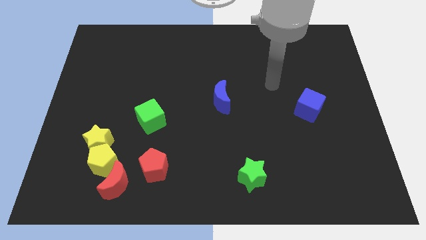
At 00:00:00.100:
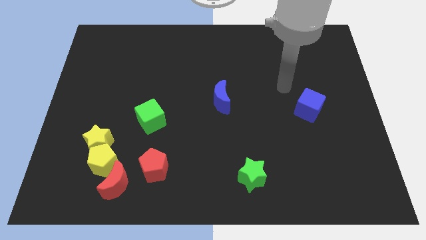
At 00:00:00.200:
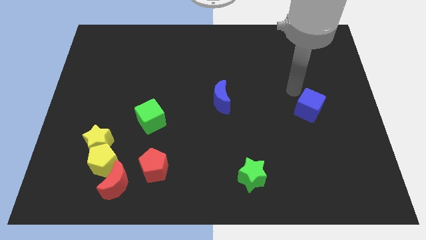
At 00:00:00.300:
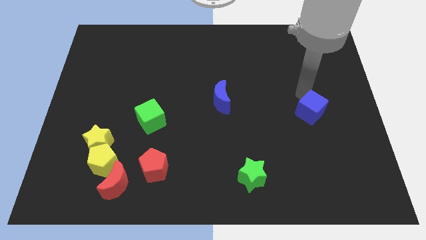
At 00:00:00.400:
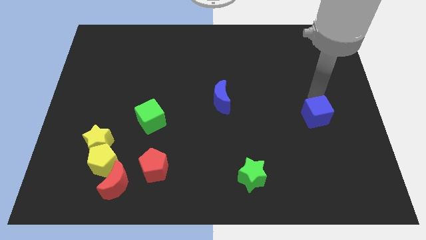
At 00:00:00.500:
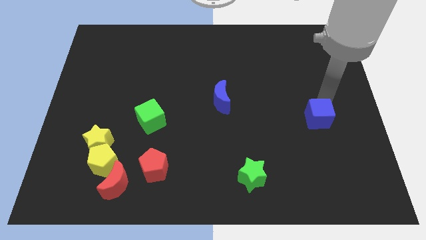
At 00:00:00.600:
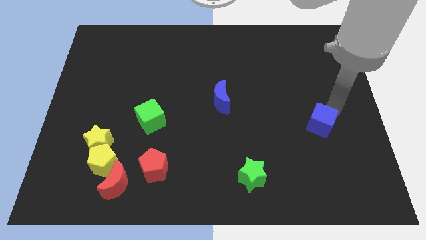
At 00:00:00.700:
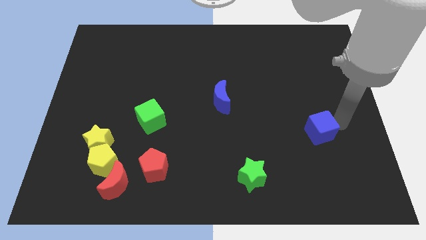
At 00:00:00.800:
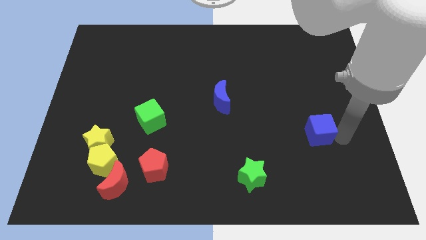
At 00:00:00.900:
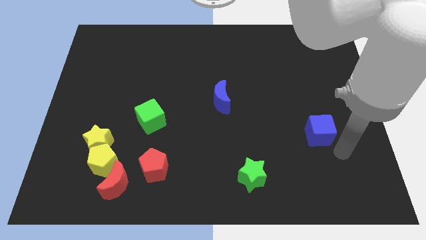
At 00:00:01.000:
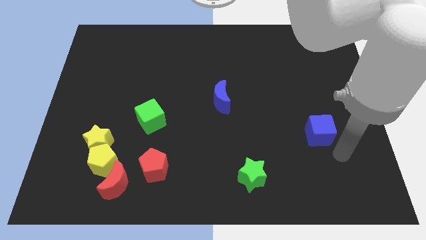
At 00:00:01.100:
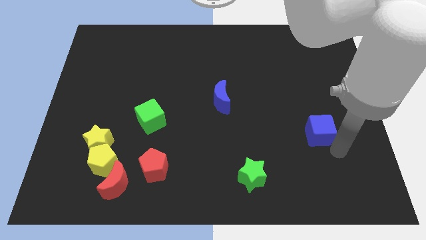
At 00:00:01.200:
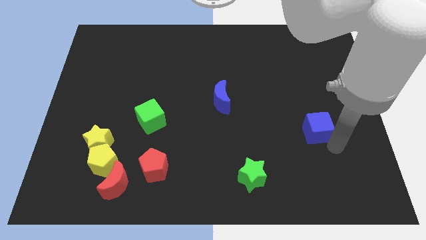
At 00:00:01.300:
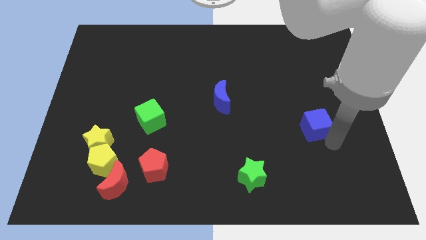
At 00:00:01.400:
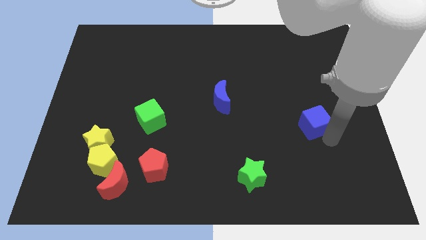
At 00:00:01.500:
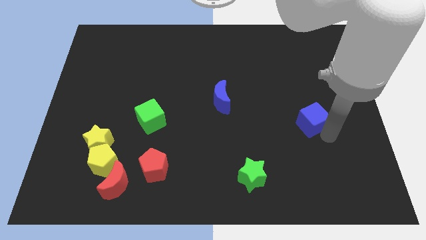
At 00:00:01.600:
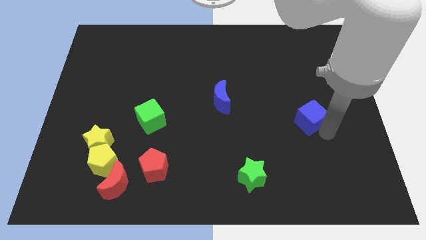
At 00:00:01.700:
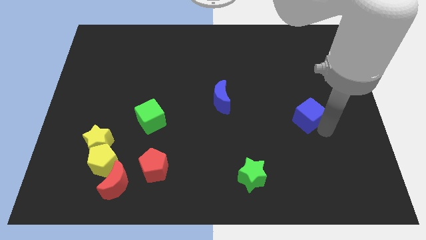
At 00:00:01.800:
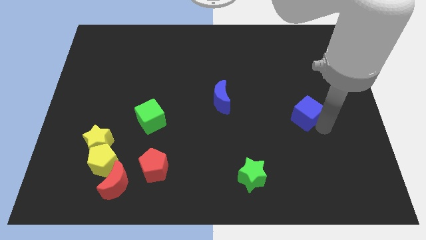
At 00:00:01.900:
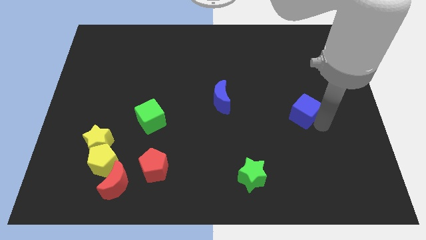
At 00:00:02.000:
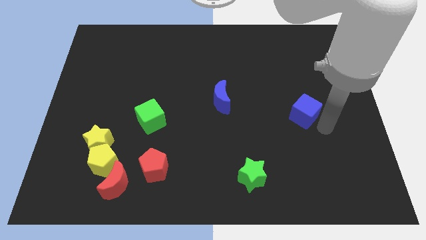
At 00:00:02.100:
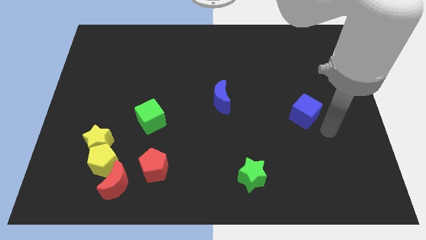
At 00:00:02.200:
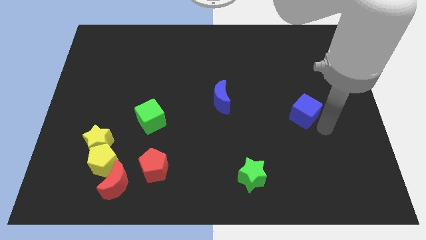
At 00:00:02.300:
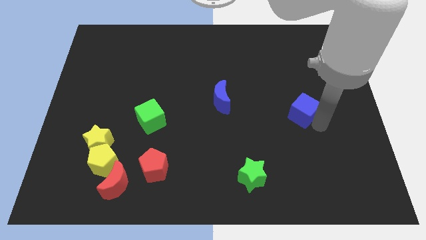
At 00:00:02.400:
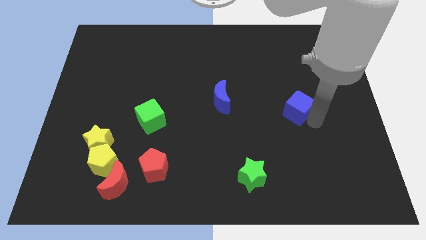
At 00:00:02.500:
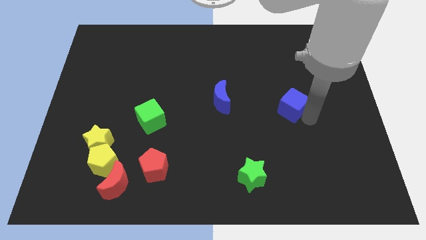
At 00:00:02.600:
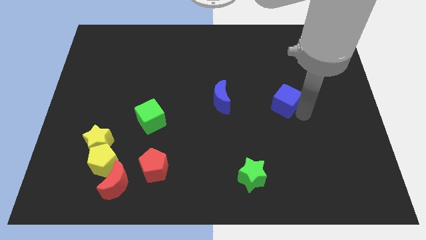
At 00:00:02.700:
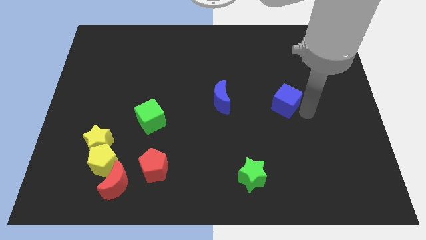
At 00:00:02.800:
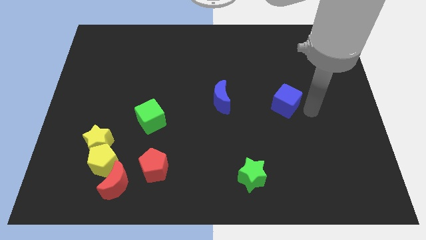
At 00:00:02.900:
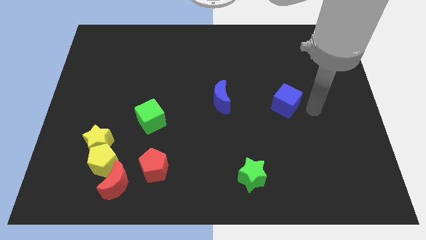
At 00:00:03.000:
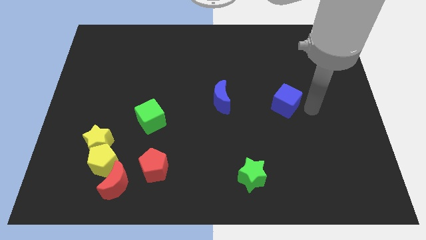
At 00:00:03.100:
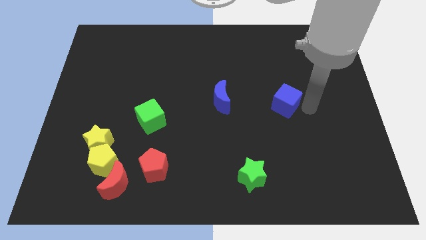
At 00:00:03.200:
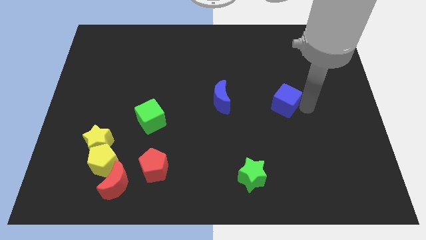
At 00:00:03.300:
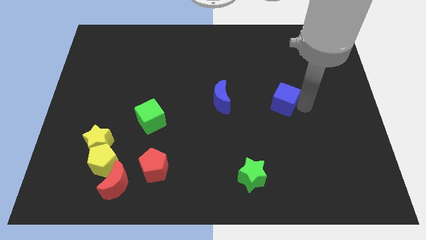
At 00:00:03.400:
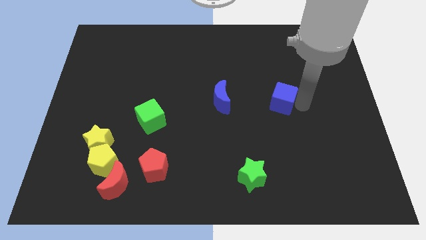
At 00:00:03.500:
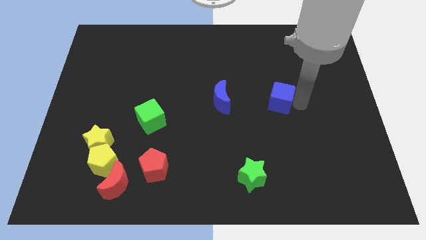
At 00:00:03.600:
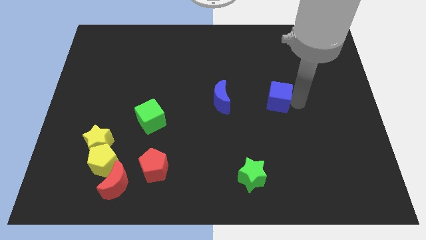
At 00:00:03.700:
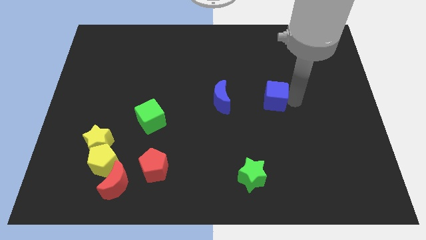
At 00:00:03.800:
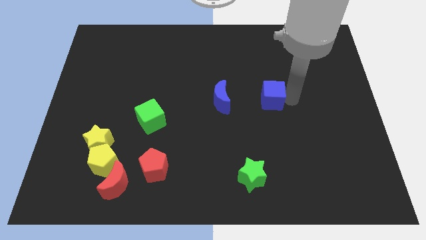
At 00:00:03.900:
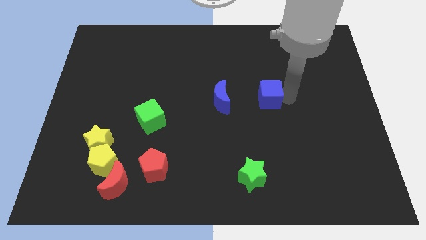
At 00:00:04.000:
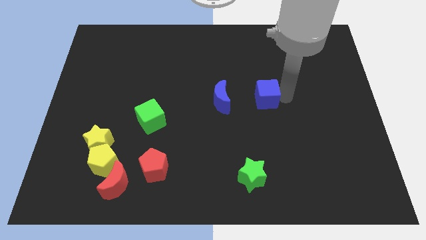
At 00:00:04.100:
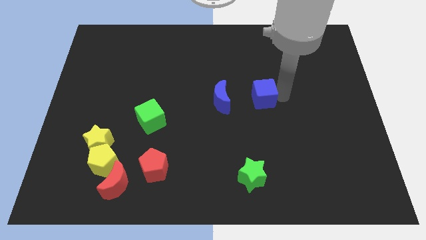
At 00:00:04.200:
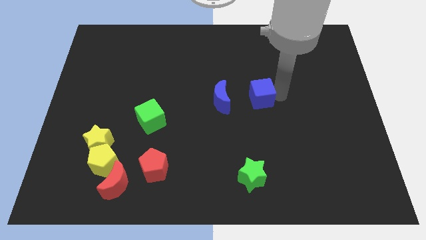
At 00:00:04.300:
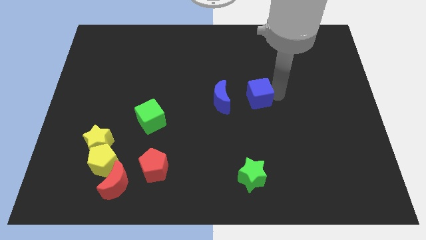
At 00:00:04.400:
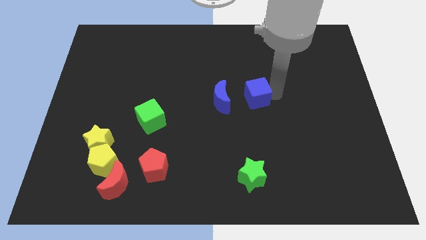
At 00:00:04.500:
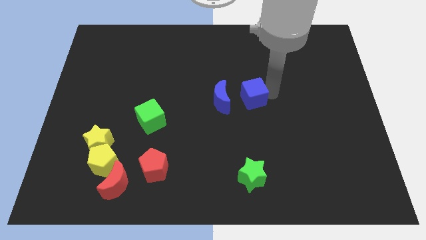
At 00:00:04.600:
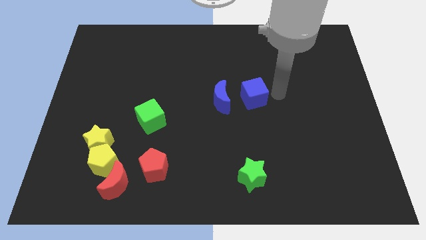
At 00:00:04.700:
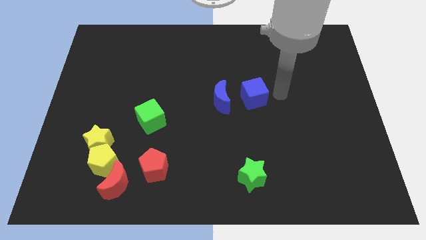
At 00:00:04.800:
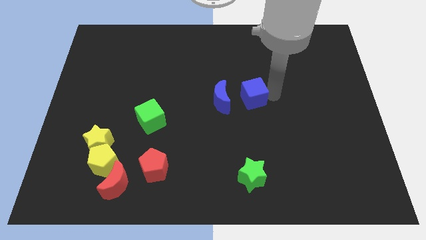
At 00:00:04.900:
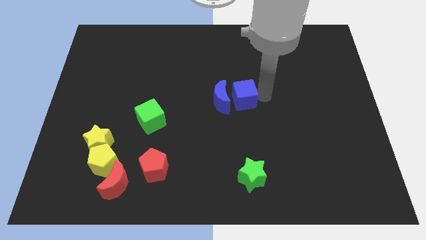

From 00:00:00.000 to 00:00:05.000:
move the blue cube towards the blue moon

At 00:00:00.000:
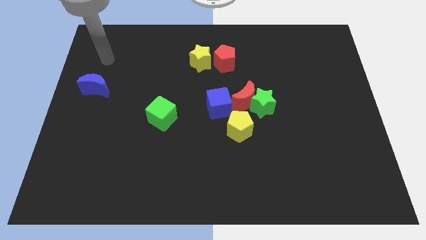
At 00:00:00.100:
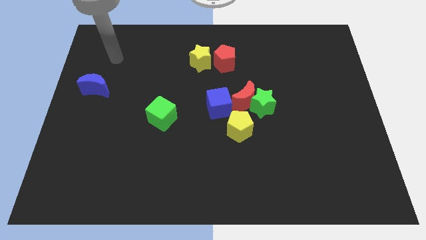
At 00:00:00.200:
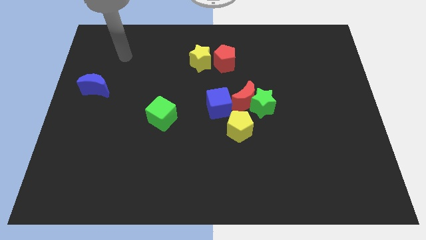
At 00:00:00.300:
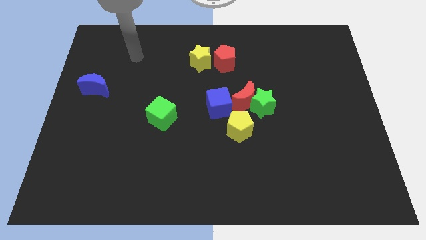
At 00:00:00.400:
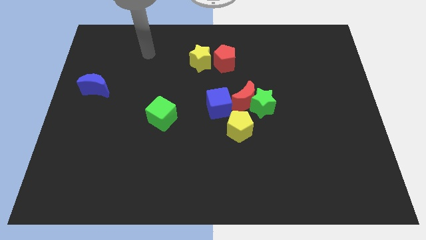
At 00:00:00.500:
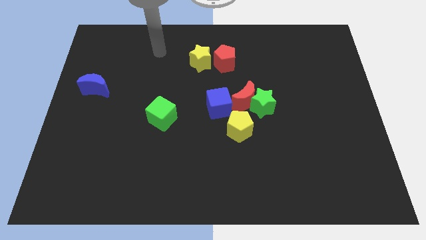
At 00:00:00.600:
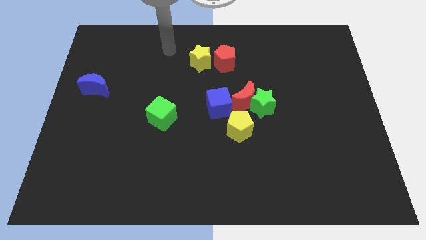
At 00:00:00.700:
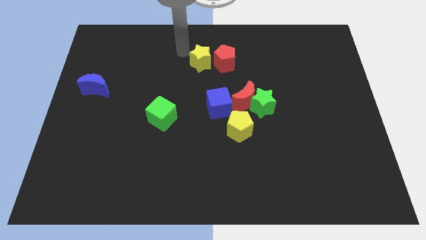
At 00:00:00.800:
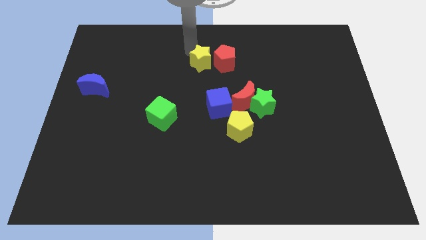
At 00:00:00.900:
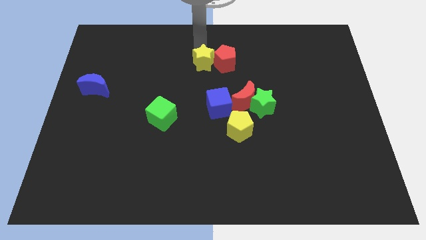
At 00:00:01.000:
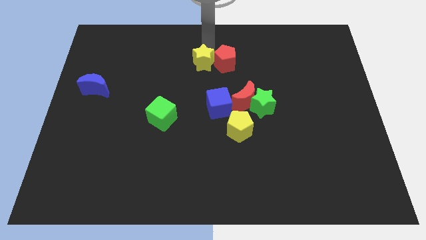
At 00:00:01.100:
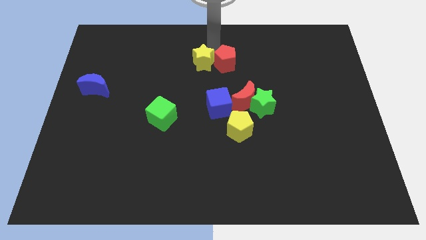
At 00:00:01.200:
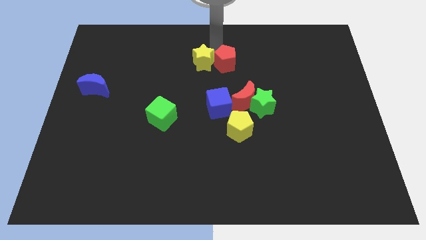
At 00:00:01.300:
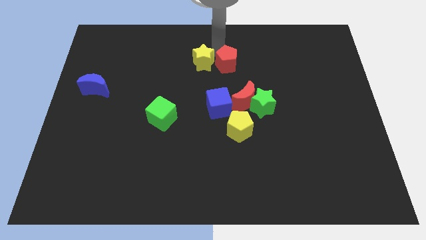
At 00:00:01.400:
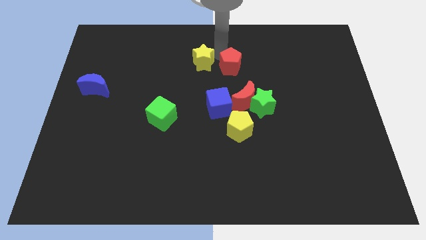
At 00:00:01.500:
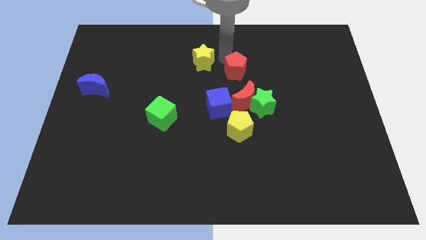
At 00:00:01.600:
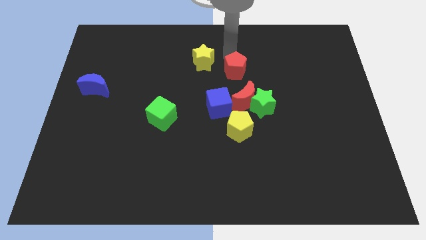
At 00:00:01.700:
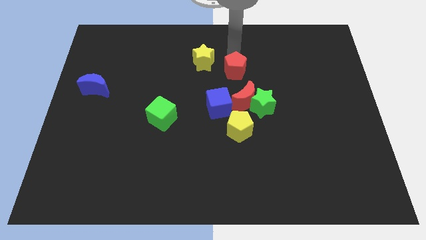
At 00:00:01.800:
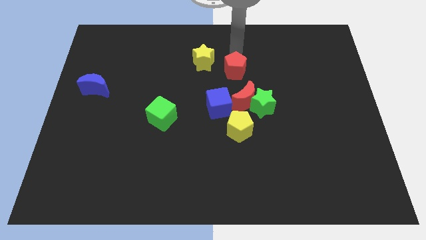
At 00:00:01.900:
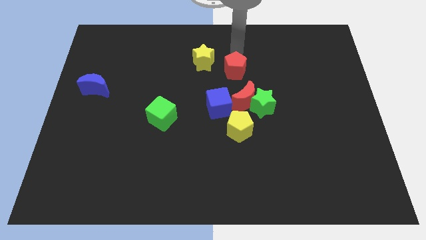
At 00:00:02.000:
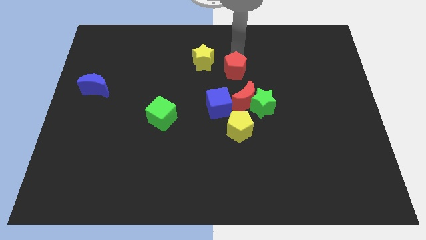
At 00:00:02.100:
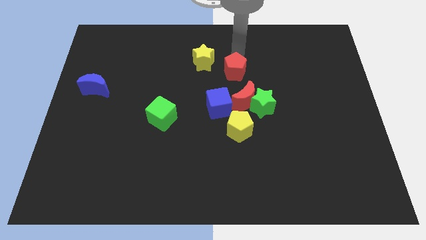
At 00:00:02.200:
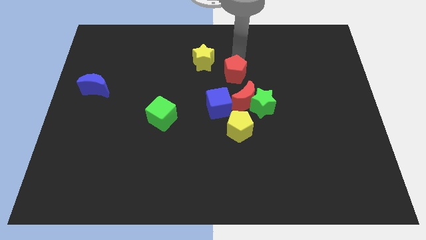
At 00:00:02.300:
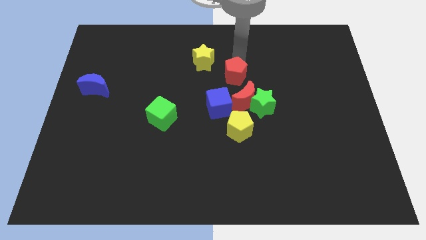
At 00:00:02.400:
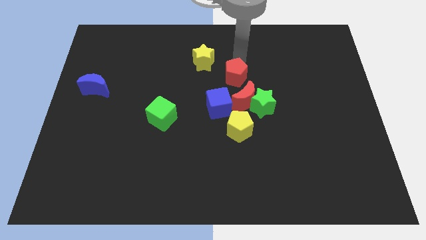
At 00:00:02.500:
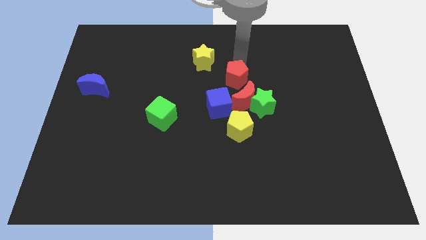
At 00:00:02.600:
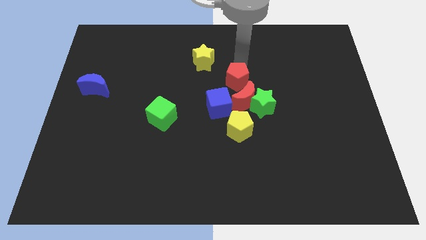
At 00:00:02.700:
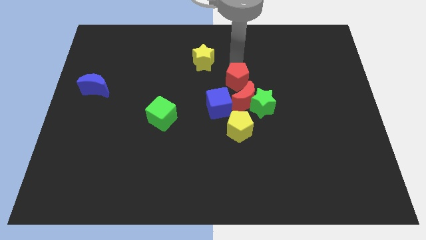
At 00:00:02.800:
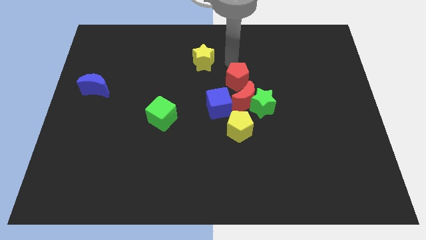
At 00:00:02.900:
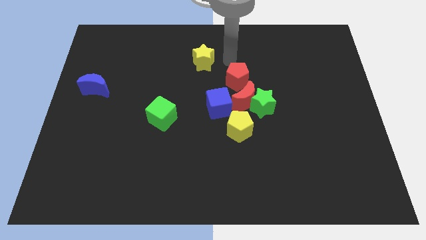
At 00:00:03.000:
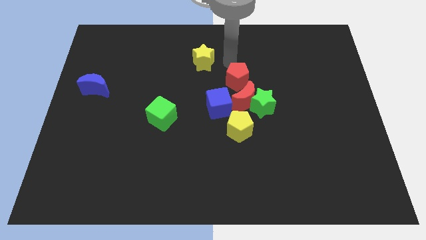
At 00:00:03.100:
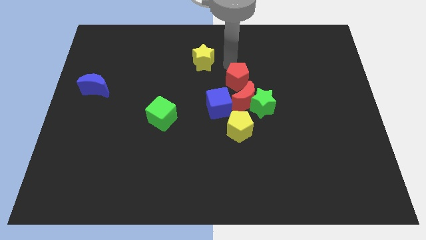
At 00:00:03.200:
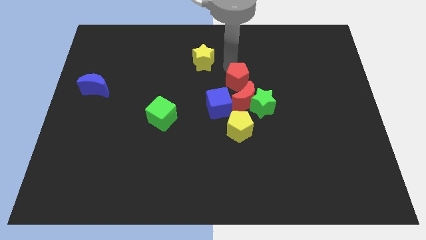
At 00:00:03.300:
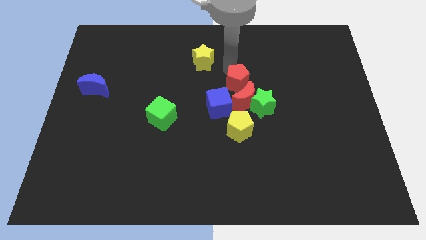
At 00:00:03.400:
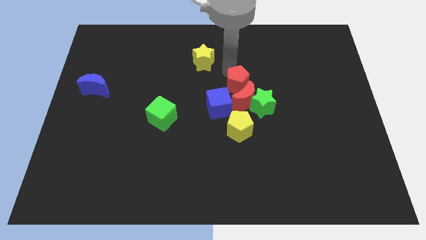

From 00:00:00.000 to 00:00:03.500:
push the red pentagon close to the red moon
